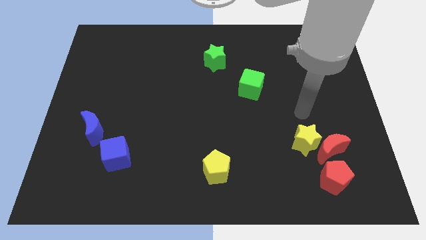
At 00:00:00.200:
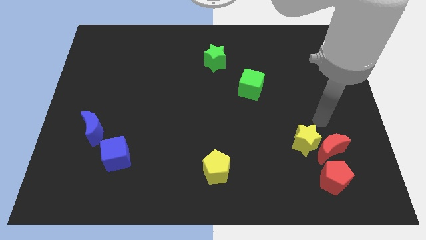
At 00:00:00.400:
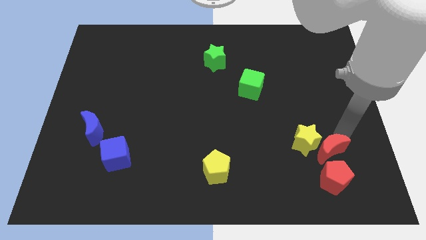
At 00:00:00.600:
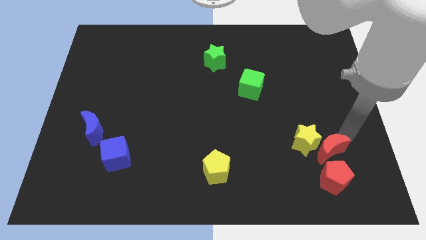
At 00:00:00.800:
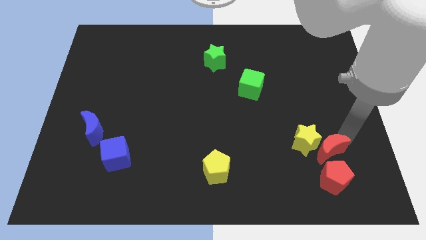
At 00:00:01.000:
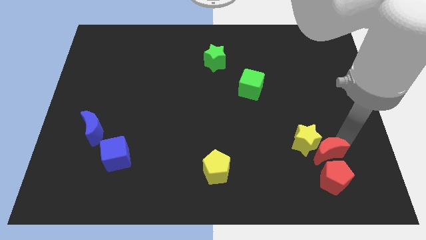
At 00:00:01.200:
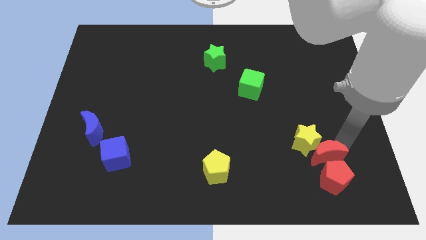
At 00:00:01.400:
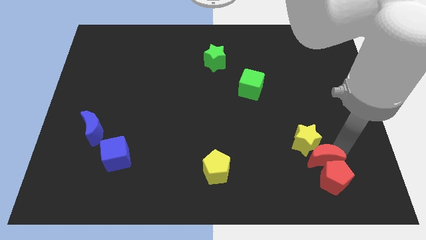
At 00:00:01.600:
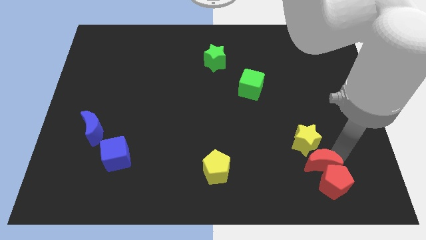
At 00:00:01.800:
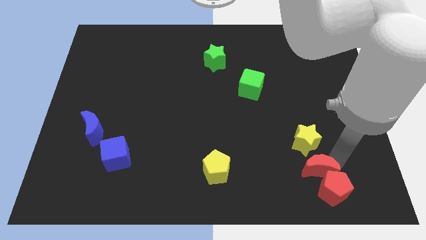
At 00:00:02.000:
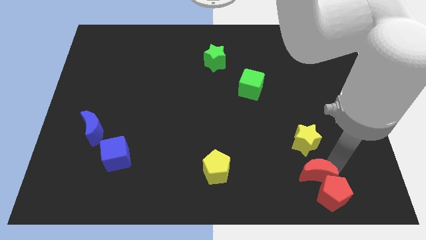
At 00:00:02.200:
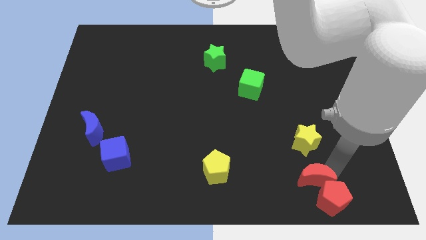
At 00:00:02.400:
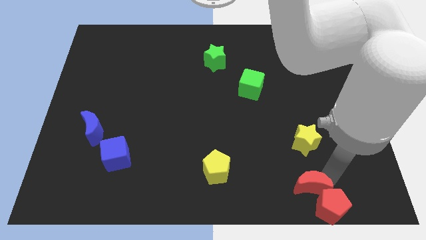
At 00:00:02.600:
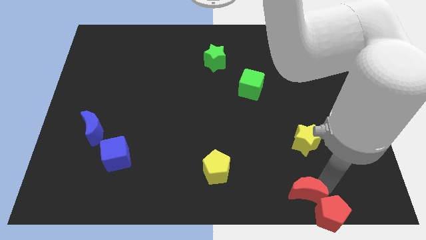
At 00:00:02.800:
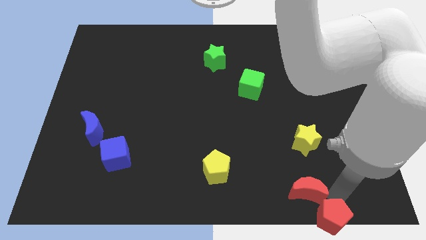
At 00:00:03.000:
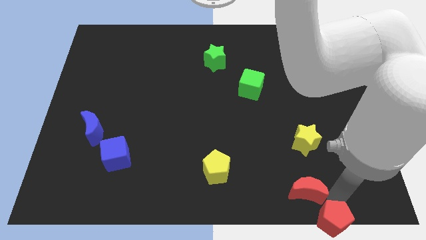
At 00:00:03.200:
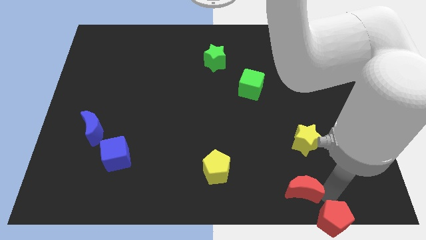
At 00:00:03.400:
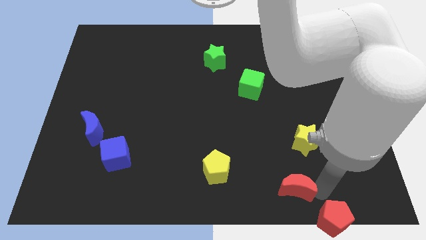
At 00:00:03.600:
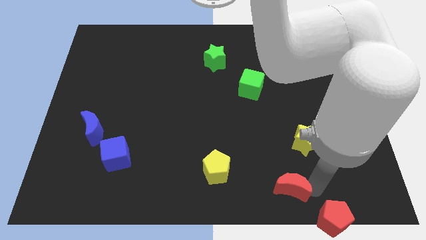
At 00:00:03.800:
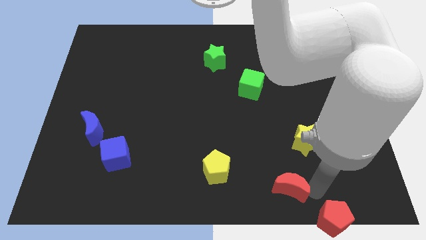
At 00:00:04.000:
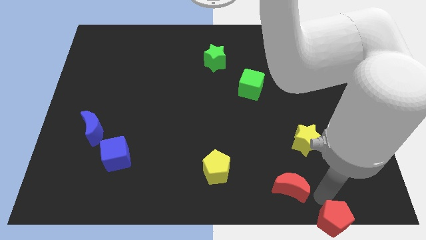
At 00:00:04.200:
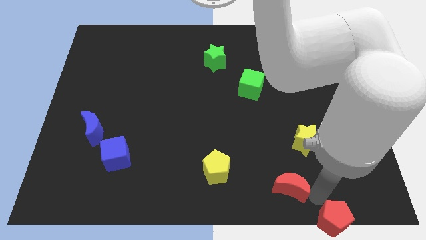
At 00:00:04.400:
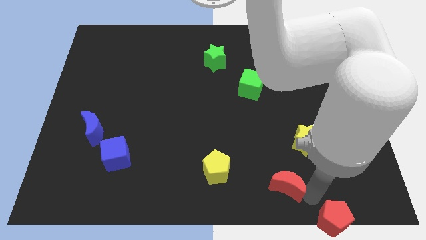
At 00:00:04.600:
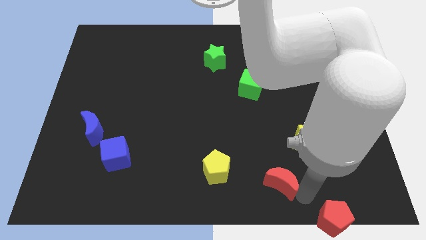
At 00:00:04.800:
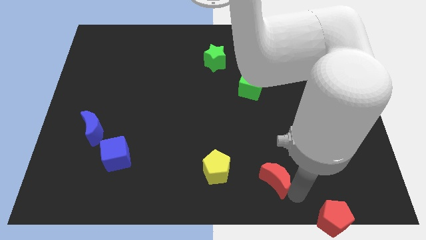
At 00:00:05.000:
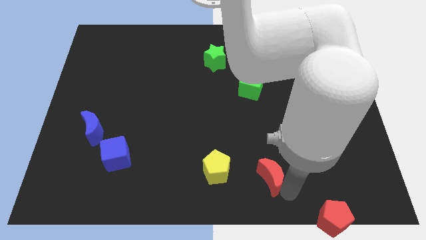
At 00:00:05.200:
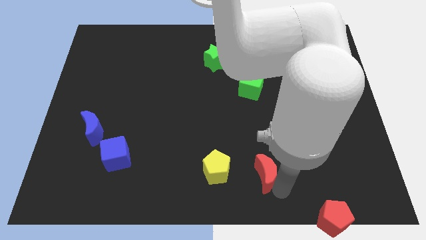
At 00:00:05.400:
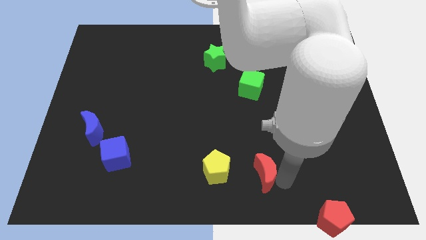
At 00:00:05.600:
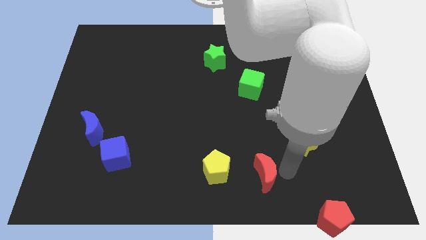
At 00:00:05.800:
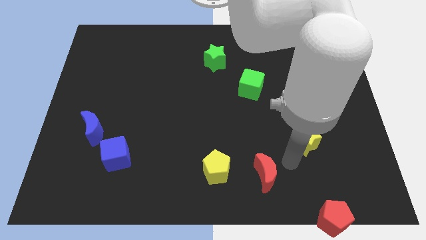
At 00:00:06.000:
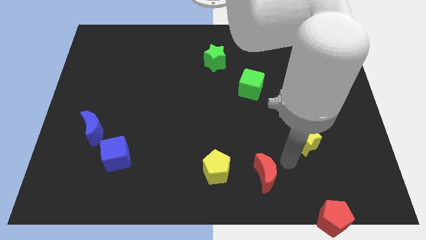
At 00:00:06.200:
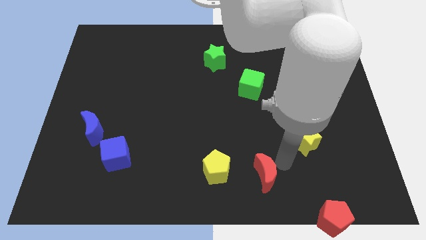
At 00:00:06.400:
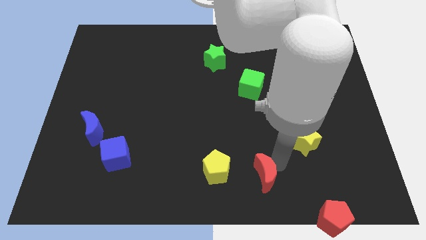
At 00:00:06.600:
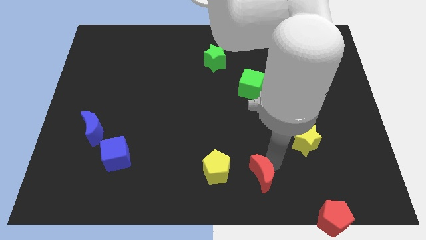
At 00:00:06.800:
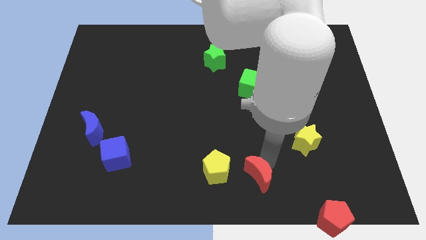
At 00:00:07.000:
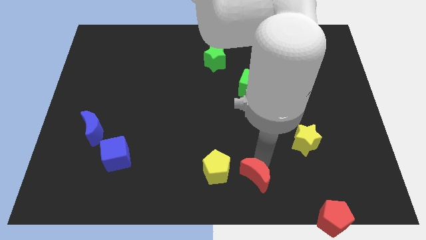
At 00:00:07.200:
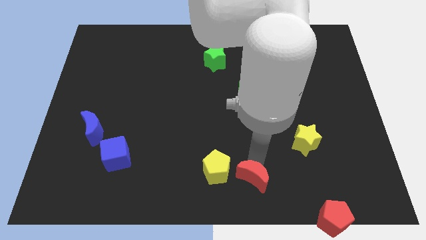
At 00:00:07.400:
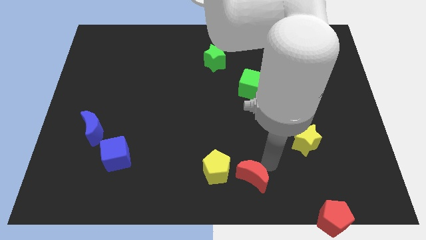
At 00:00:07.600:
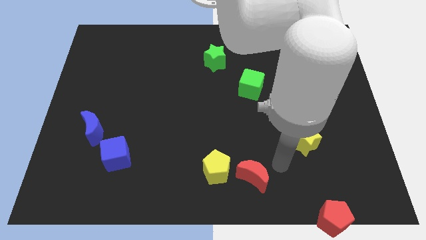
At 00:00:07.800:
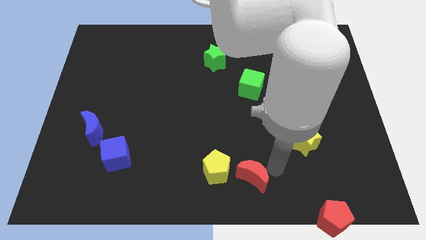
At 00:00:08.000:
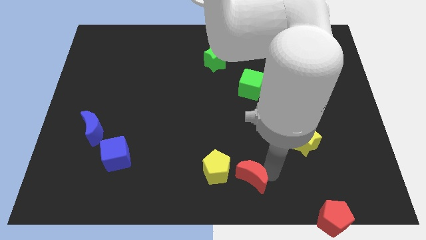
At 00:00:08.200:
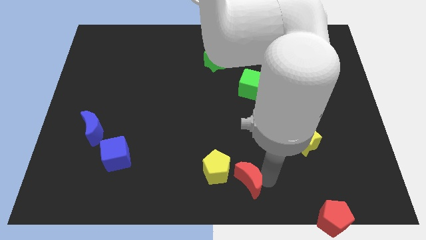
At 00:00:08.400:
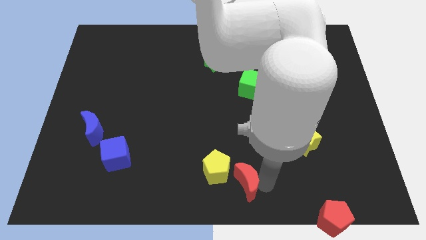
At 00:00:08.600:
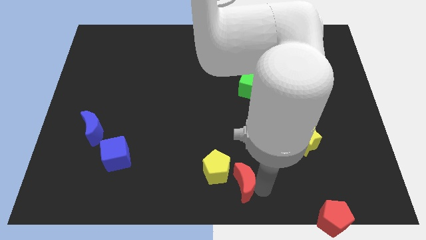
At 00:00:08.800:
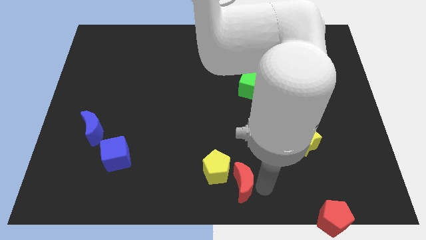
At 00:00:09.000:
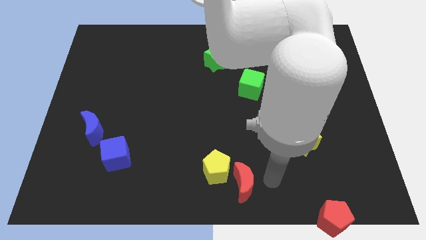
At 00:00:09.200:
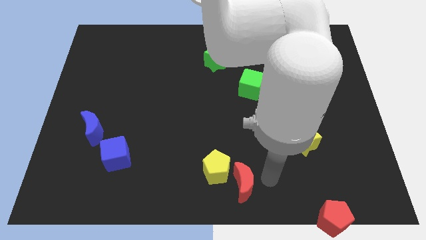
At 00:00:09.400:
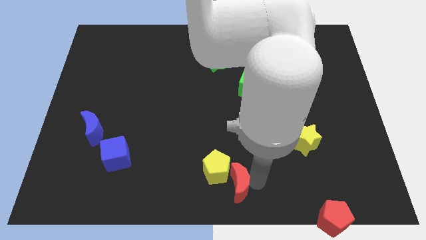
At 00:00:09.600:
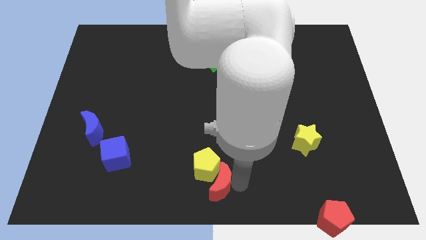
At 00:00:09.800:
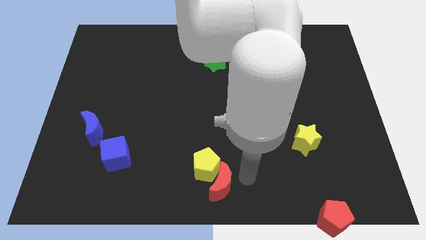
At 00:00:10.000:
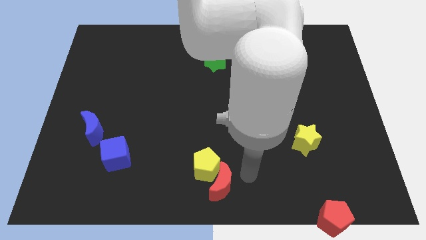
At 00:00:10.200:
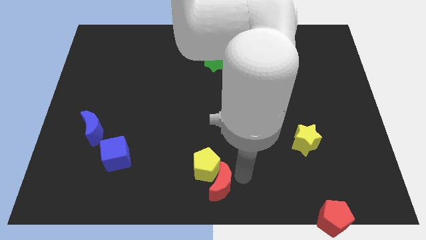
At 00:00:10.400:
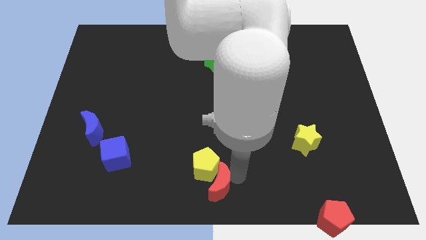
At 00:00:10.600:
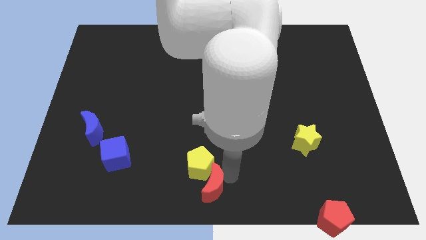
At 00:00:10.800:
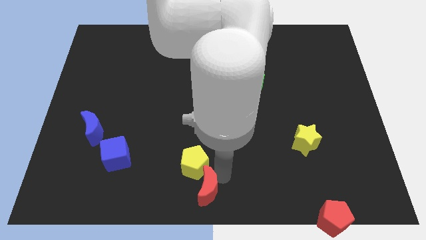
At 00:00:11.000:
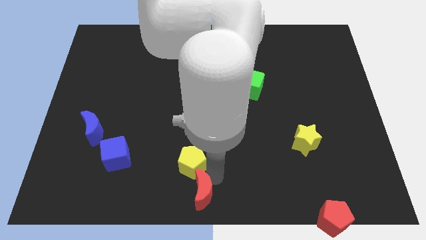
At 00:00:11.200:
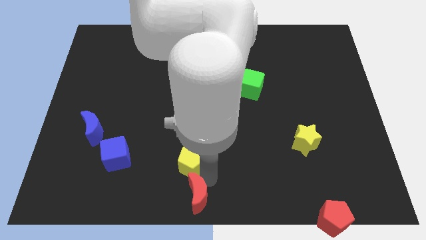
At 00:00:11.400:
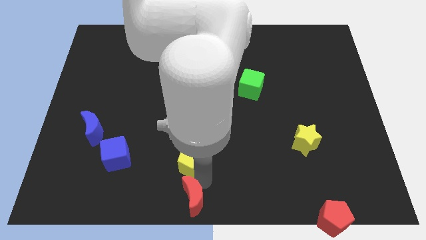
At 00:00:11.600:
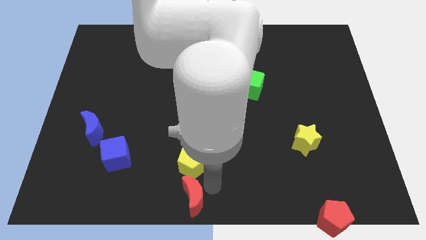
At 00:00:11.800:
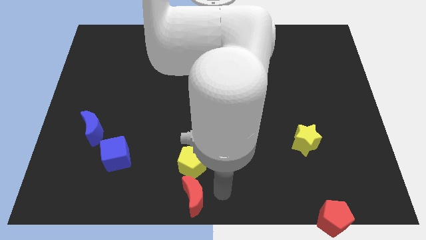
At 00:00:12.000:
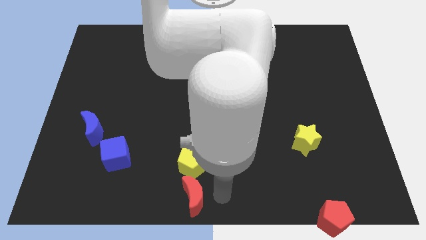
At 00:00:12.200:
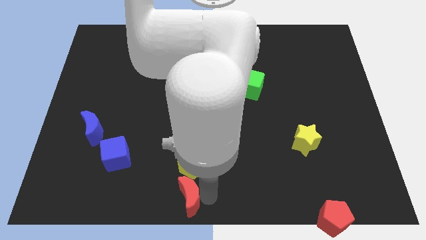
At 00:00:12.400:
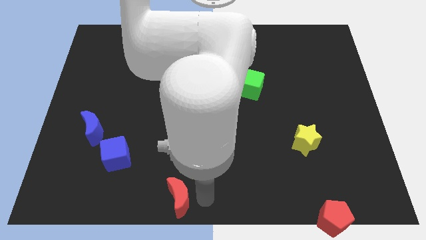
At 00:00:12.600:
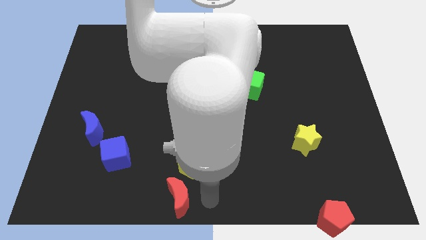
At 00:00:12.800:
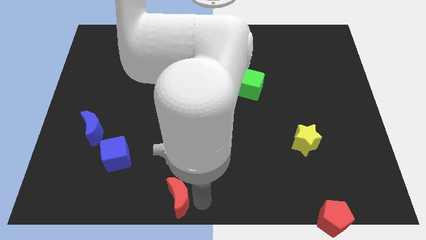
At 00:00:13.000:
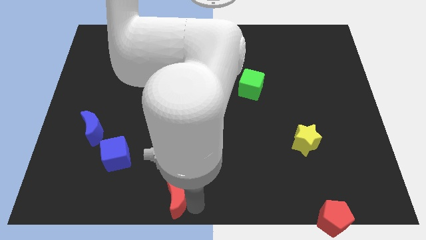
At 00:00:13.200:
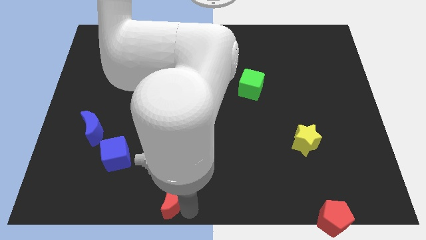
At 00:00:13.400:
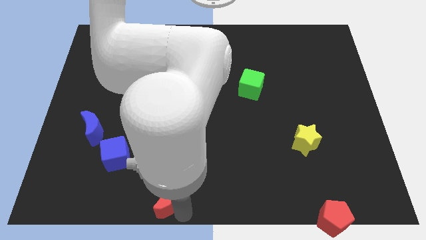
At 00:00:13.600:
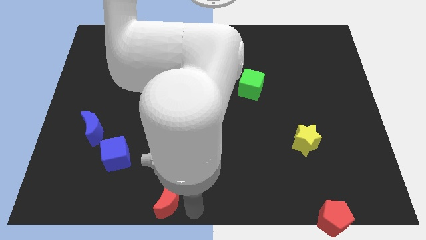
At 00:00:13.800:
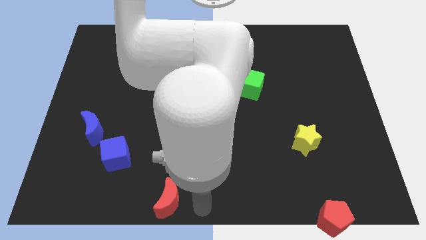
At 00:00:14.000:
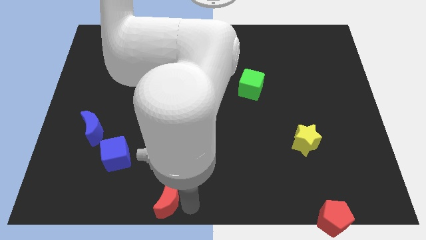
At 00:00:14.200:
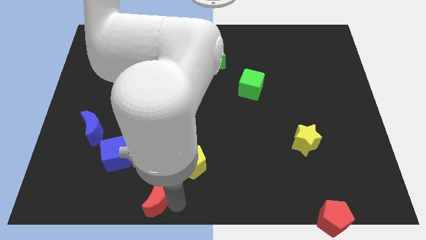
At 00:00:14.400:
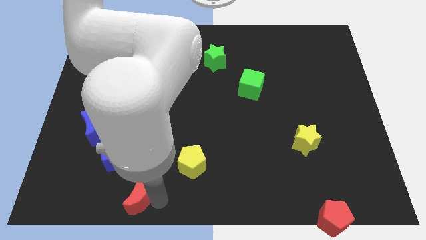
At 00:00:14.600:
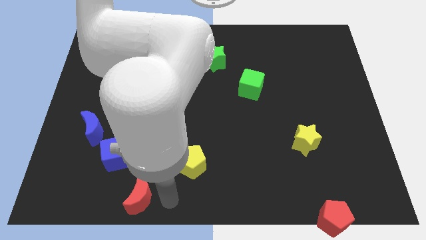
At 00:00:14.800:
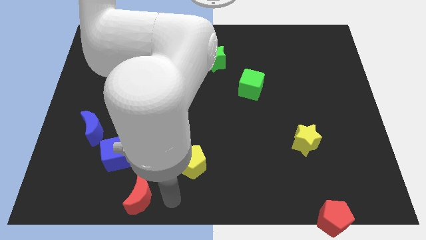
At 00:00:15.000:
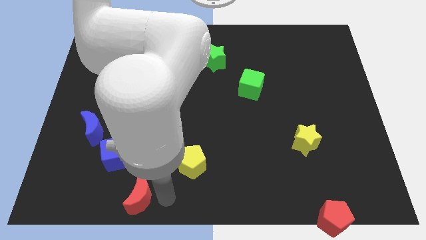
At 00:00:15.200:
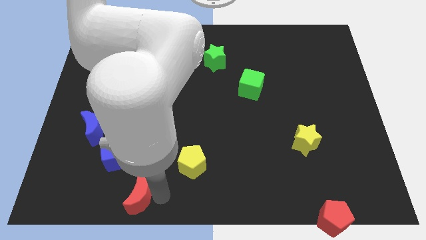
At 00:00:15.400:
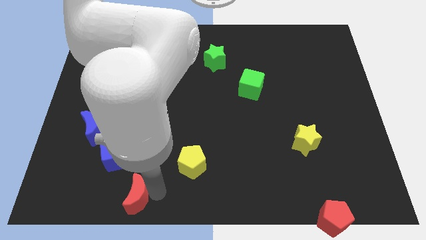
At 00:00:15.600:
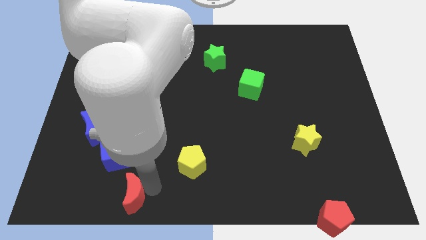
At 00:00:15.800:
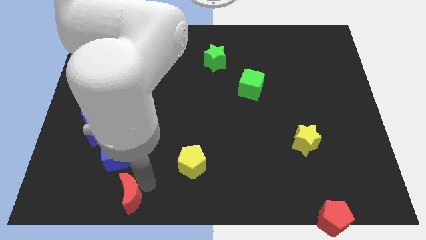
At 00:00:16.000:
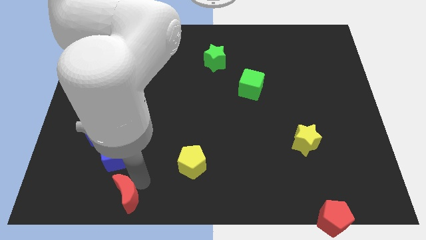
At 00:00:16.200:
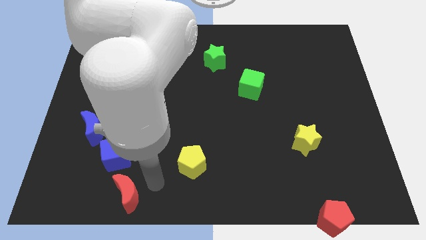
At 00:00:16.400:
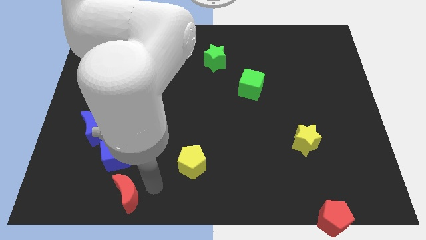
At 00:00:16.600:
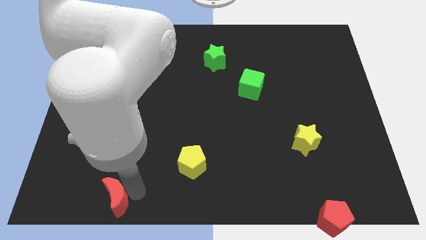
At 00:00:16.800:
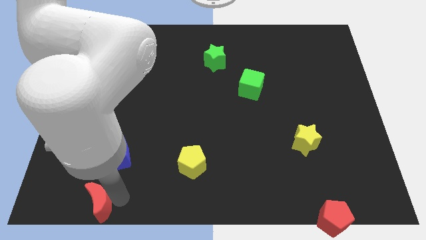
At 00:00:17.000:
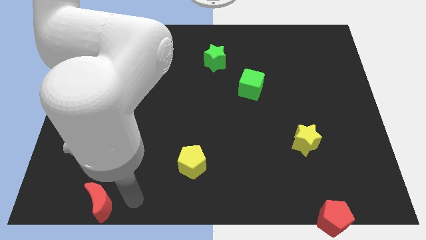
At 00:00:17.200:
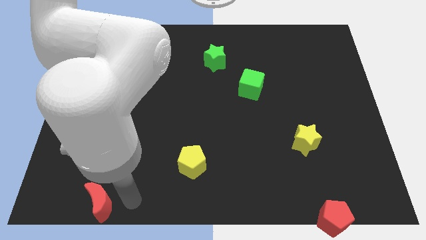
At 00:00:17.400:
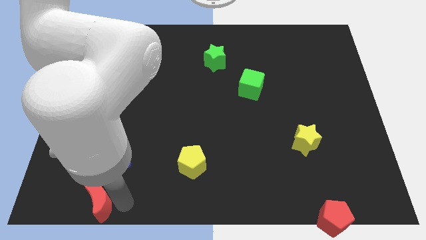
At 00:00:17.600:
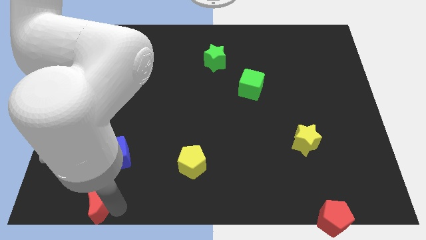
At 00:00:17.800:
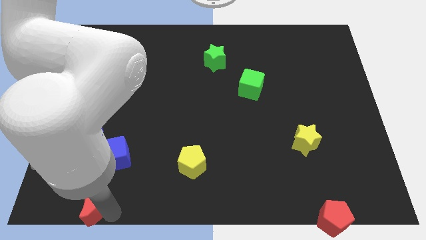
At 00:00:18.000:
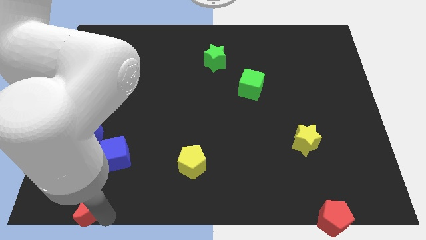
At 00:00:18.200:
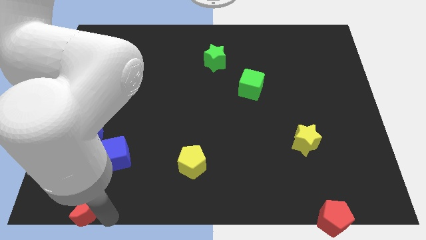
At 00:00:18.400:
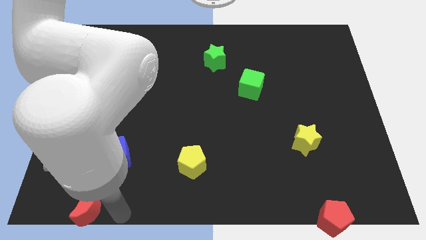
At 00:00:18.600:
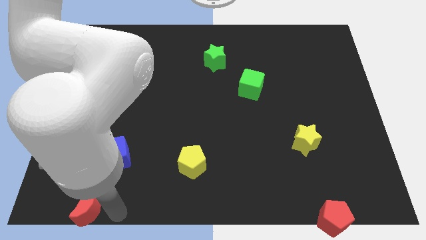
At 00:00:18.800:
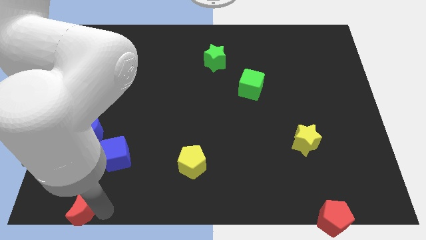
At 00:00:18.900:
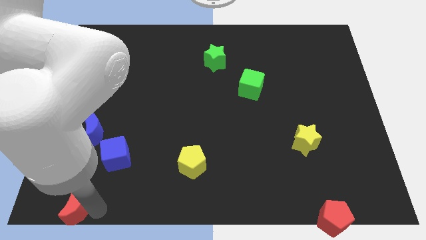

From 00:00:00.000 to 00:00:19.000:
put the red moon to the bottom left
